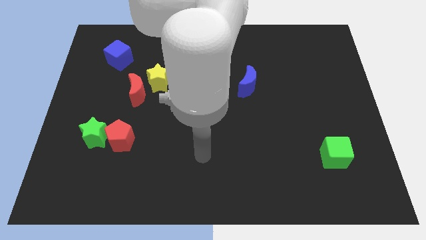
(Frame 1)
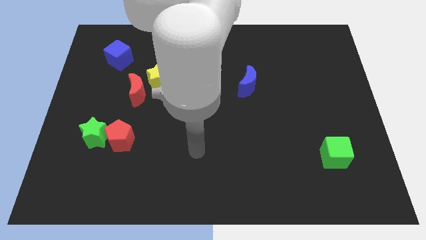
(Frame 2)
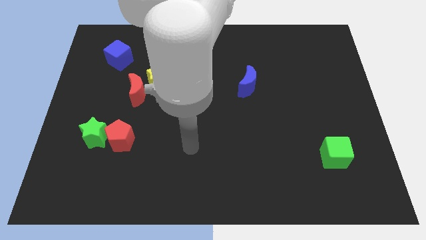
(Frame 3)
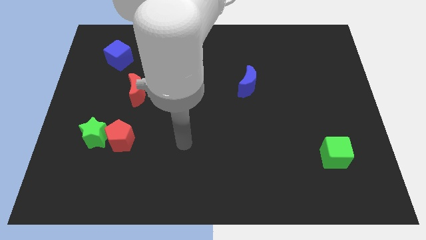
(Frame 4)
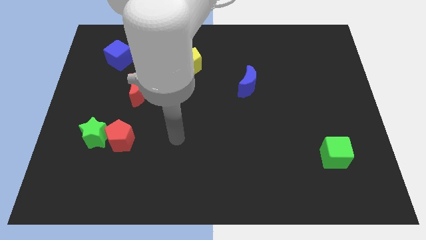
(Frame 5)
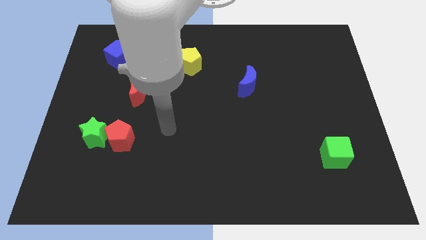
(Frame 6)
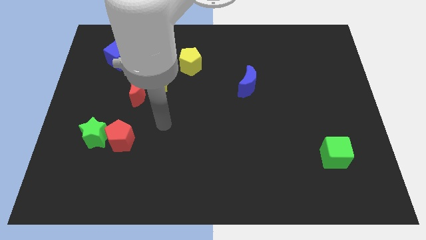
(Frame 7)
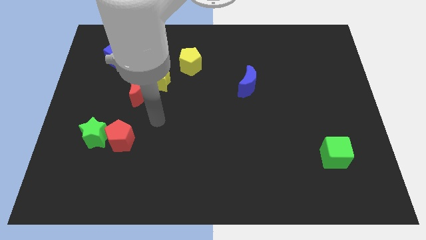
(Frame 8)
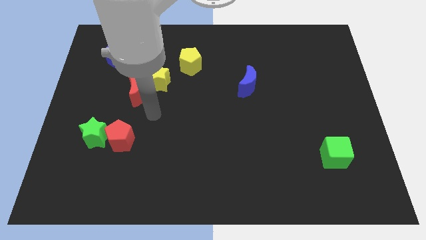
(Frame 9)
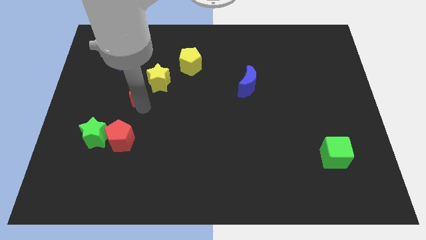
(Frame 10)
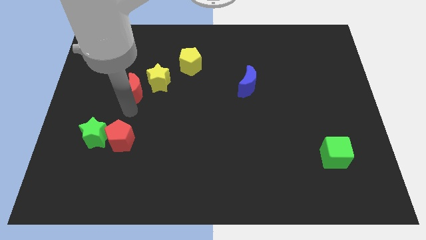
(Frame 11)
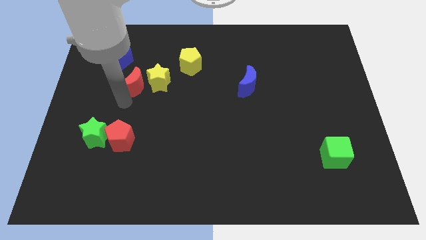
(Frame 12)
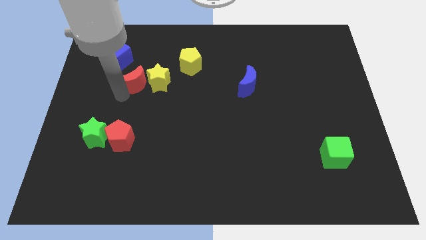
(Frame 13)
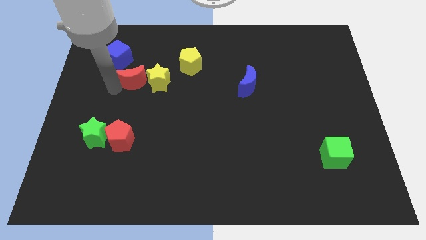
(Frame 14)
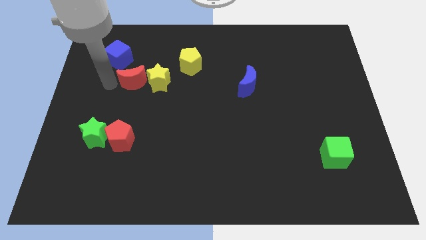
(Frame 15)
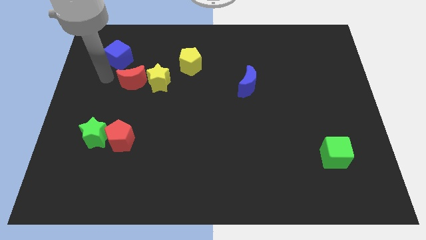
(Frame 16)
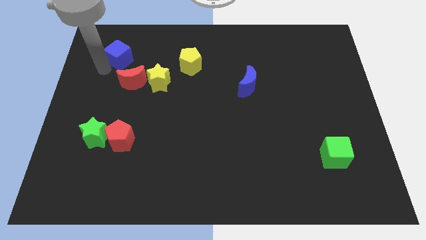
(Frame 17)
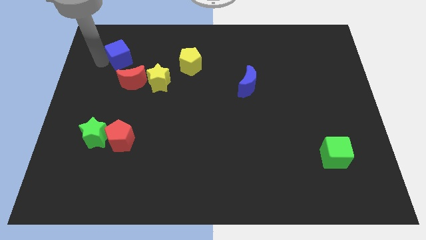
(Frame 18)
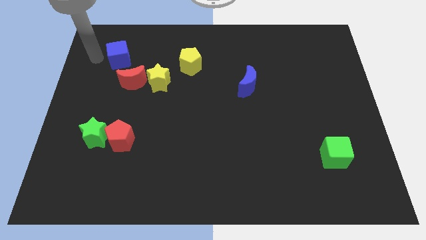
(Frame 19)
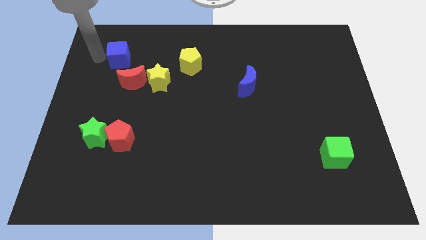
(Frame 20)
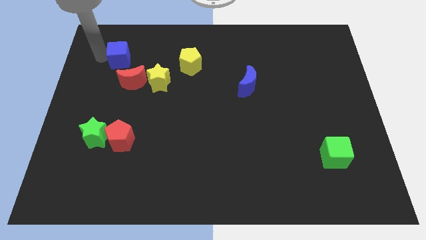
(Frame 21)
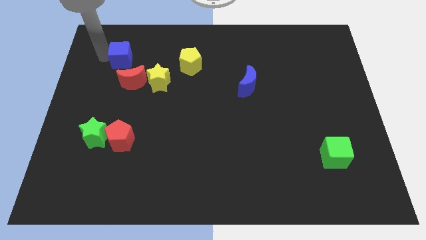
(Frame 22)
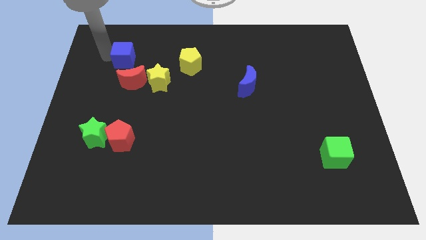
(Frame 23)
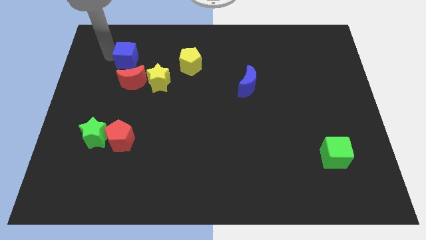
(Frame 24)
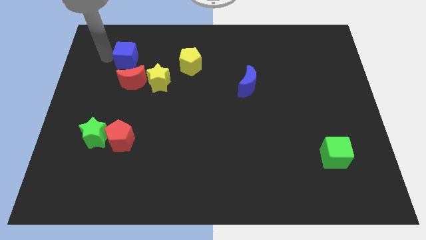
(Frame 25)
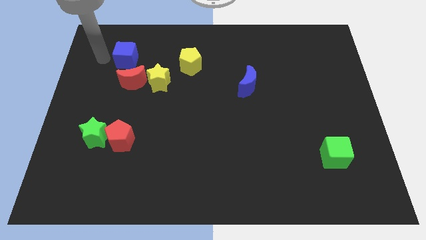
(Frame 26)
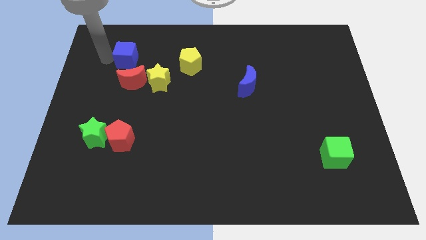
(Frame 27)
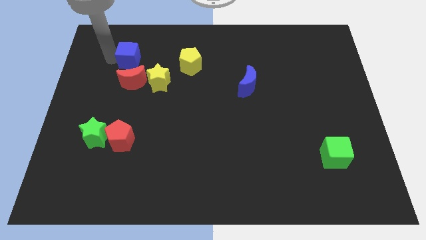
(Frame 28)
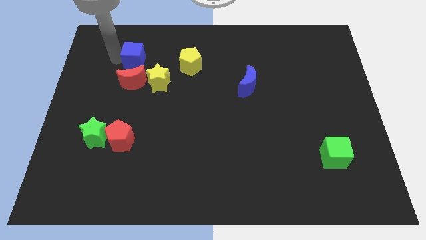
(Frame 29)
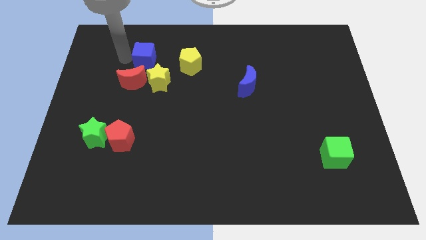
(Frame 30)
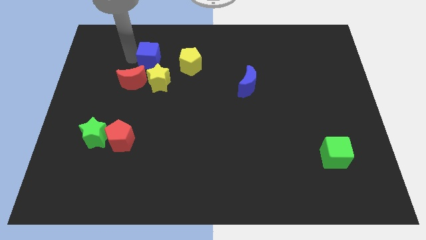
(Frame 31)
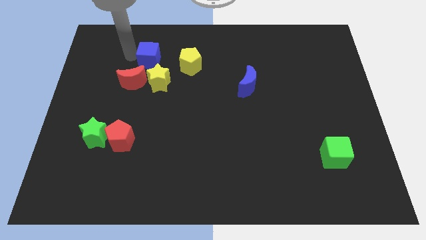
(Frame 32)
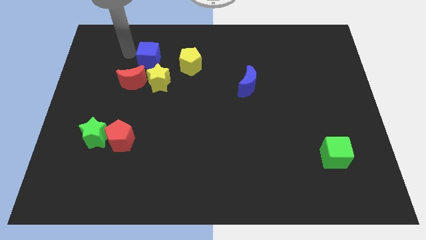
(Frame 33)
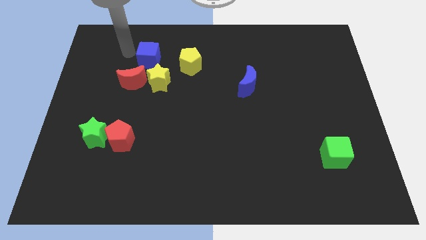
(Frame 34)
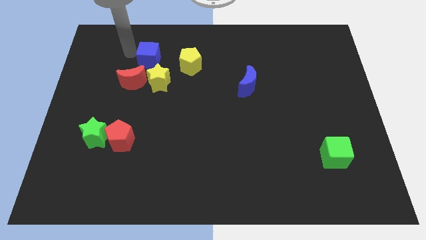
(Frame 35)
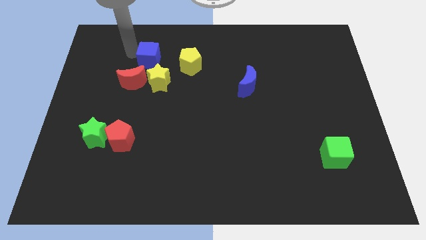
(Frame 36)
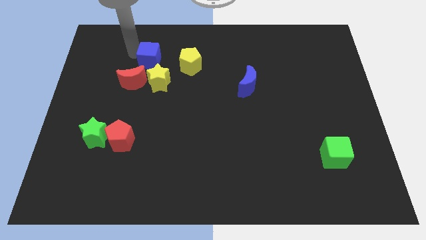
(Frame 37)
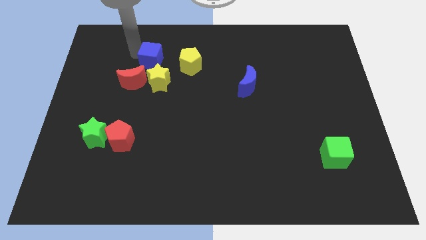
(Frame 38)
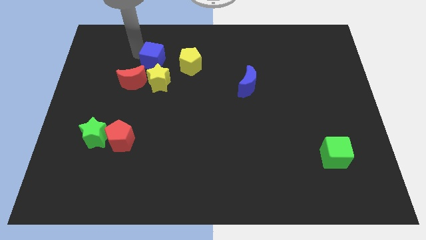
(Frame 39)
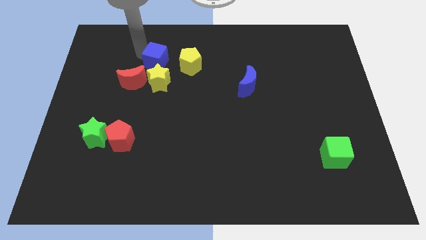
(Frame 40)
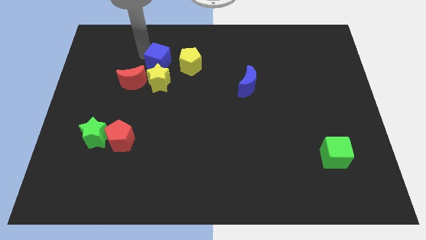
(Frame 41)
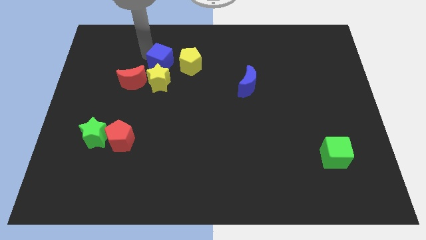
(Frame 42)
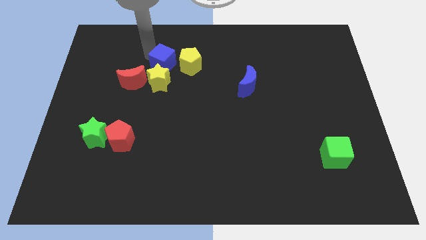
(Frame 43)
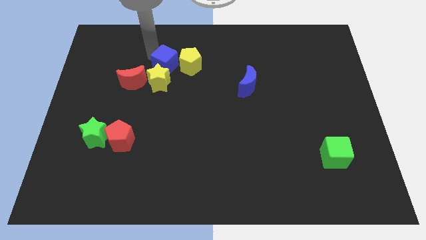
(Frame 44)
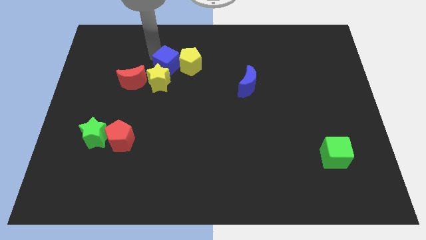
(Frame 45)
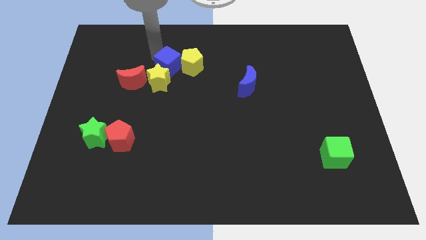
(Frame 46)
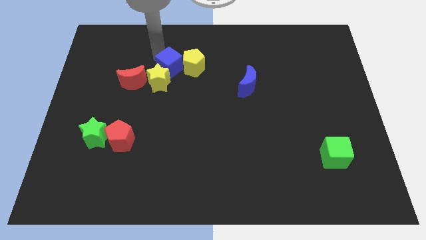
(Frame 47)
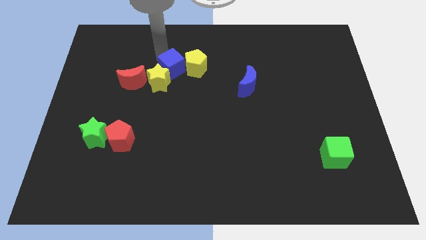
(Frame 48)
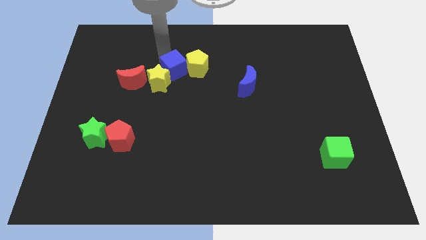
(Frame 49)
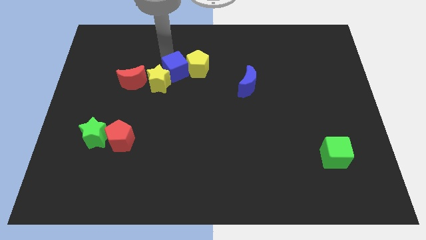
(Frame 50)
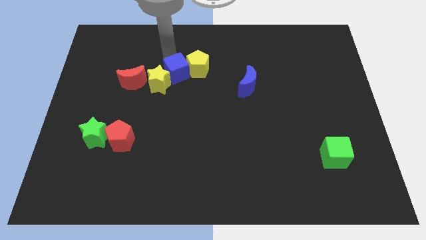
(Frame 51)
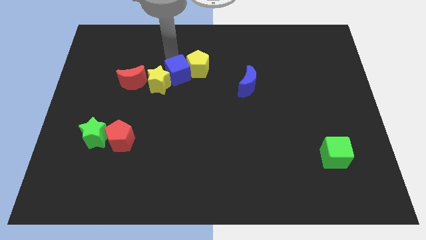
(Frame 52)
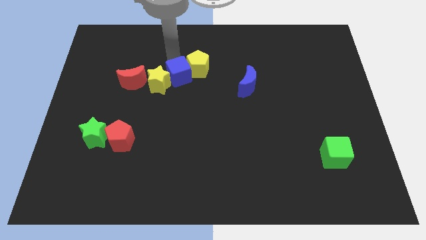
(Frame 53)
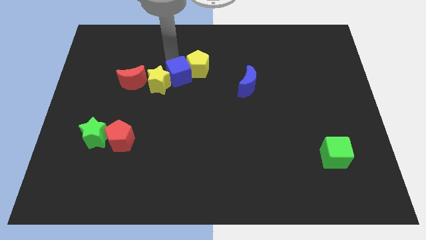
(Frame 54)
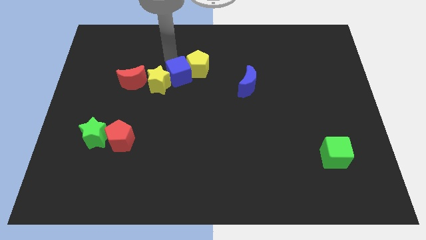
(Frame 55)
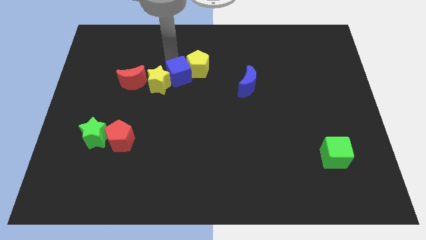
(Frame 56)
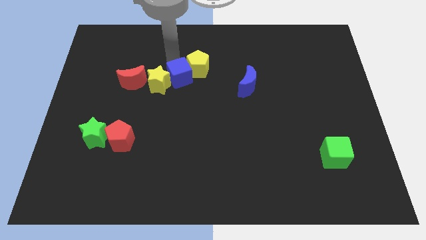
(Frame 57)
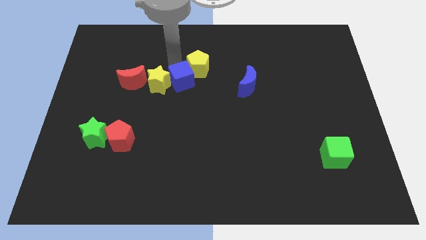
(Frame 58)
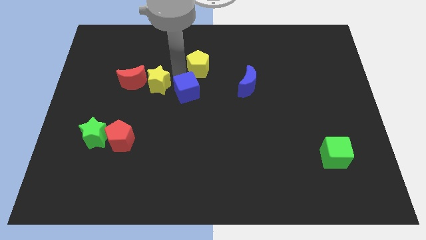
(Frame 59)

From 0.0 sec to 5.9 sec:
move the blue cube down and then to the right

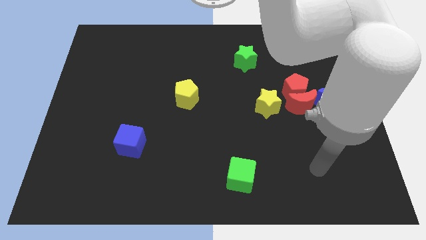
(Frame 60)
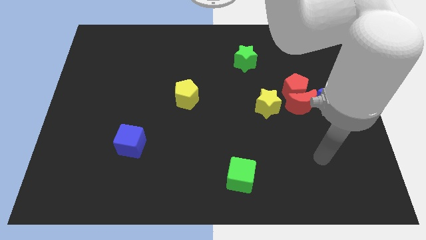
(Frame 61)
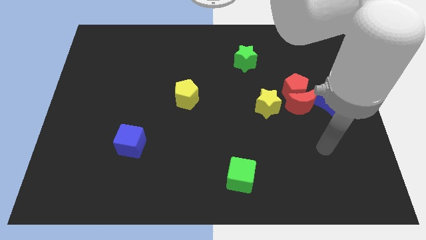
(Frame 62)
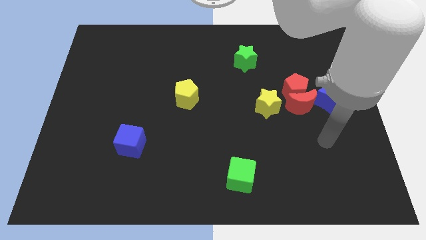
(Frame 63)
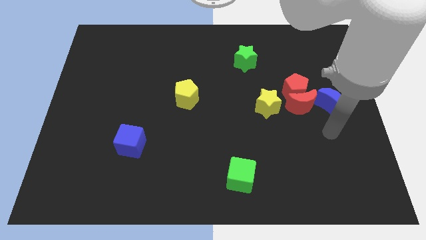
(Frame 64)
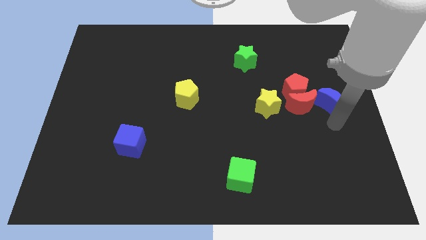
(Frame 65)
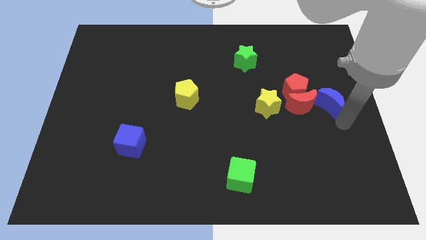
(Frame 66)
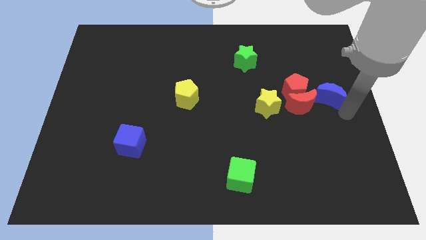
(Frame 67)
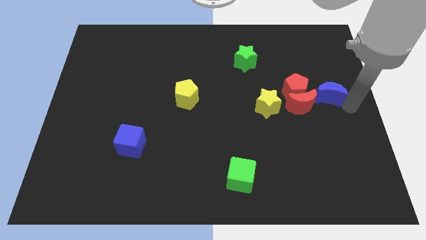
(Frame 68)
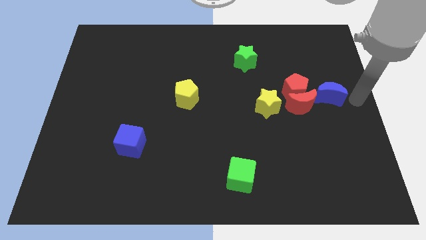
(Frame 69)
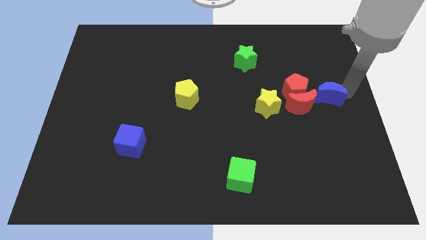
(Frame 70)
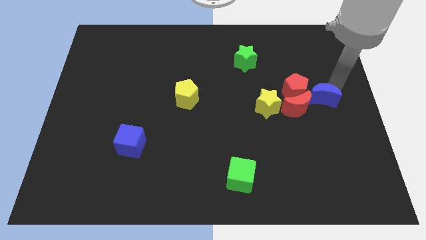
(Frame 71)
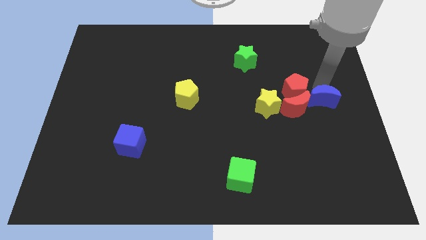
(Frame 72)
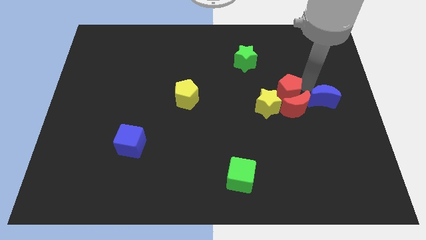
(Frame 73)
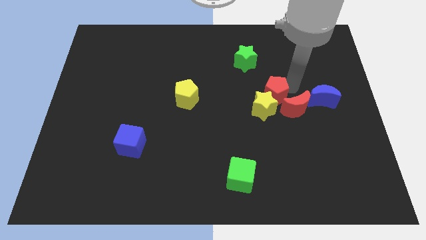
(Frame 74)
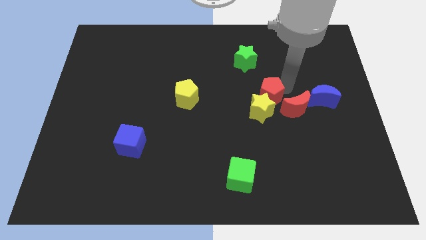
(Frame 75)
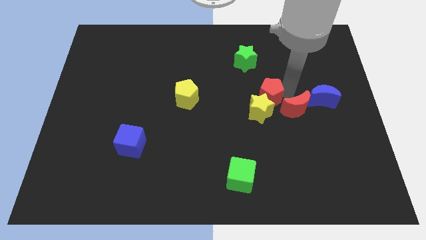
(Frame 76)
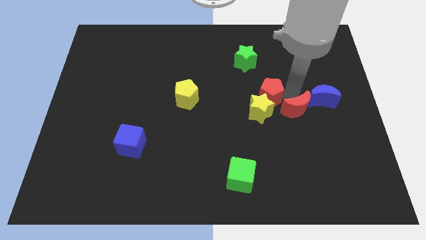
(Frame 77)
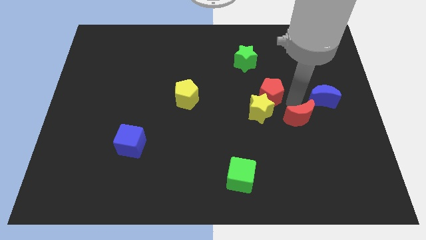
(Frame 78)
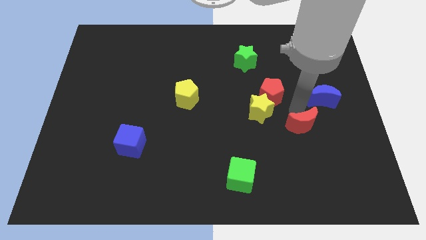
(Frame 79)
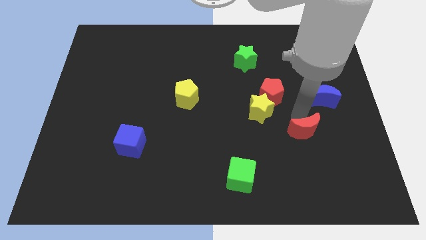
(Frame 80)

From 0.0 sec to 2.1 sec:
slightly move the red moon downwards
